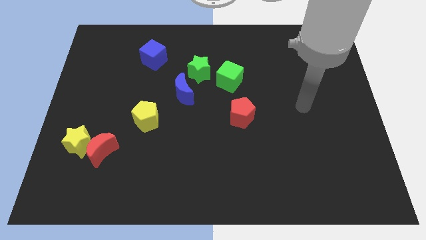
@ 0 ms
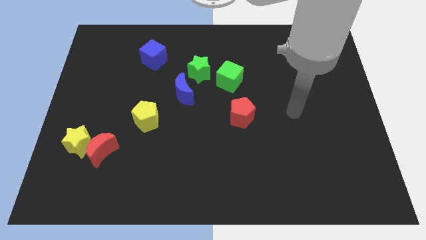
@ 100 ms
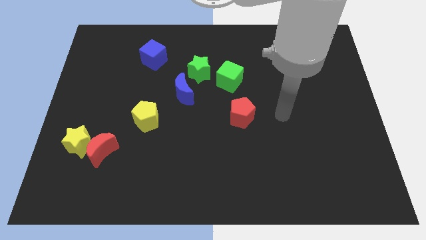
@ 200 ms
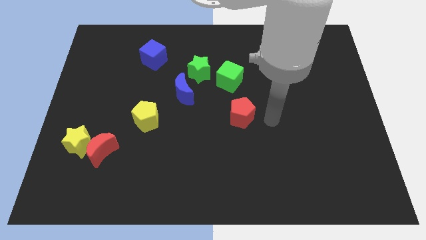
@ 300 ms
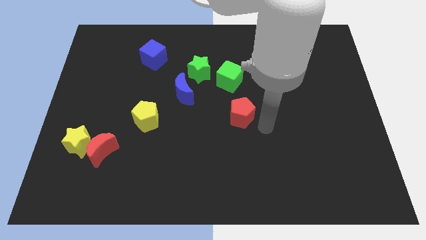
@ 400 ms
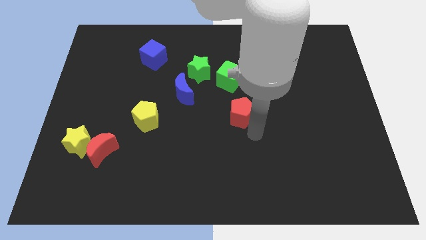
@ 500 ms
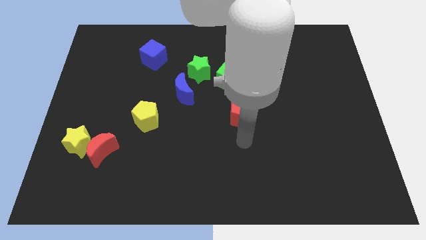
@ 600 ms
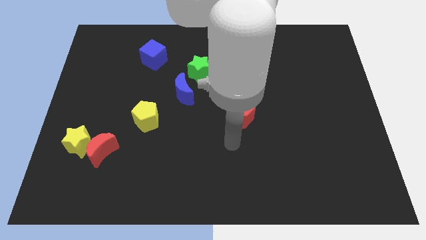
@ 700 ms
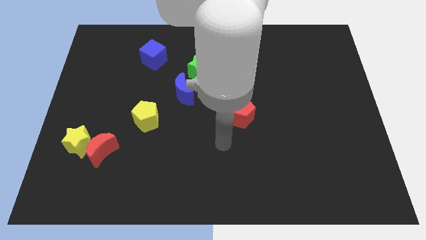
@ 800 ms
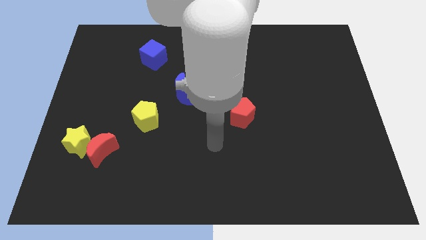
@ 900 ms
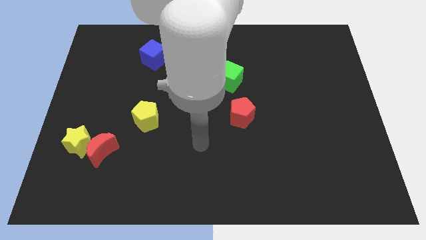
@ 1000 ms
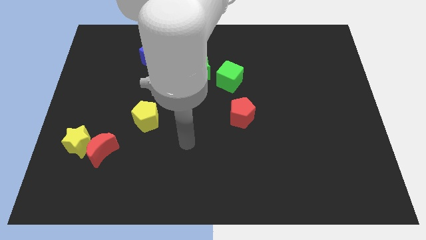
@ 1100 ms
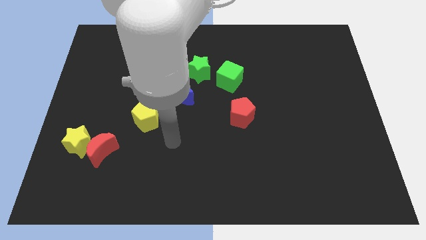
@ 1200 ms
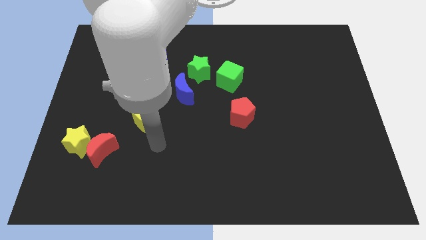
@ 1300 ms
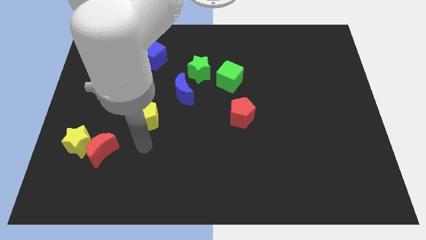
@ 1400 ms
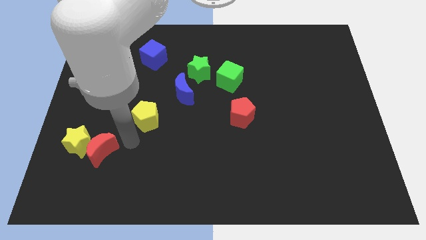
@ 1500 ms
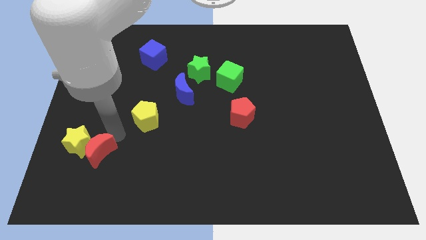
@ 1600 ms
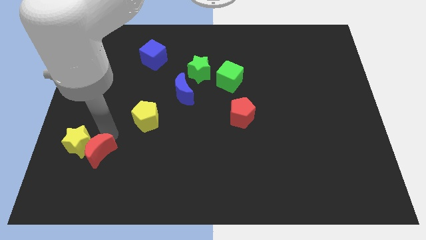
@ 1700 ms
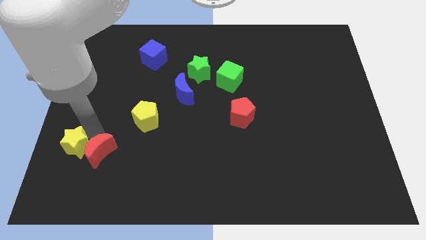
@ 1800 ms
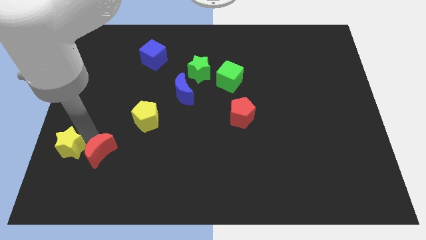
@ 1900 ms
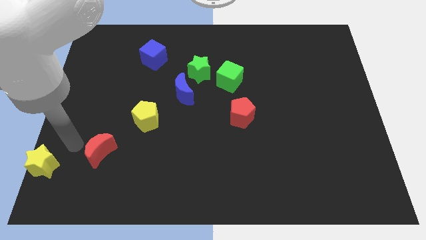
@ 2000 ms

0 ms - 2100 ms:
separate the red moon from the yellow star

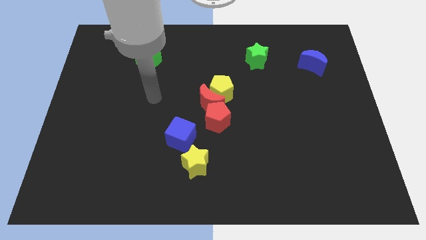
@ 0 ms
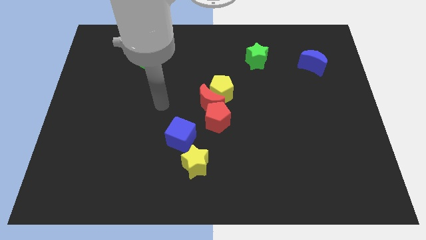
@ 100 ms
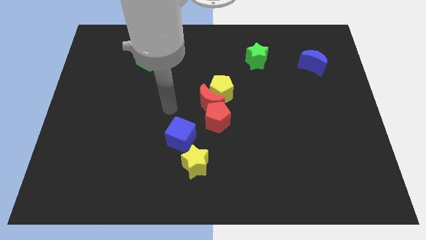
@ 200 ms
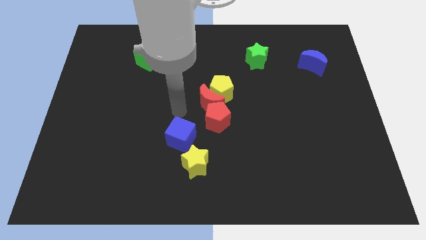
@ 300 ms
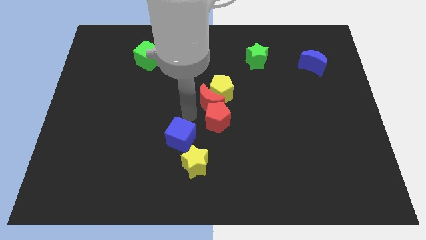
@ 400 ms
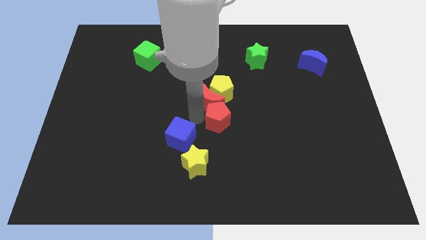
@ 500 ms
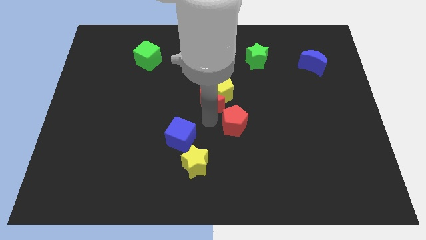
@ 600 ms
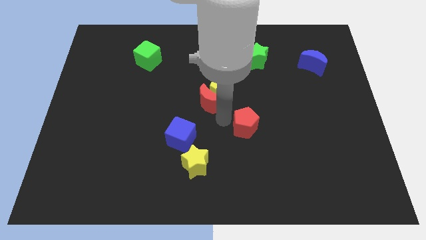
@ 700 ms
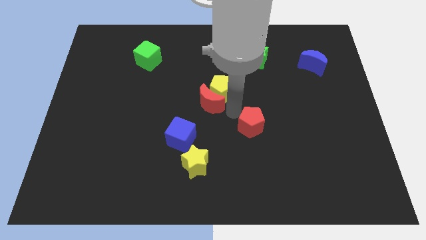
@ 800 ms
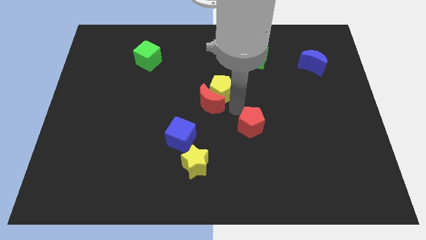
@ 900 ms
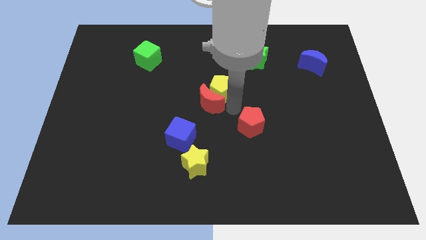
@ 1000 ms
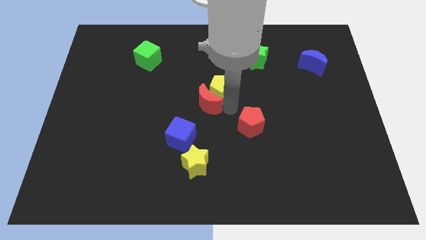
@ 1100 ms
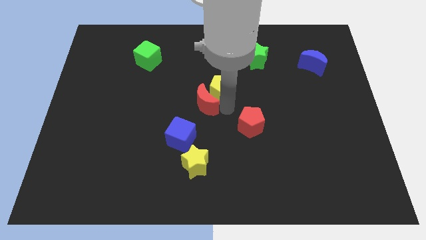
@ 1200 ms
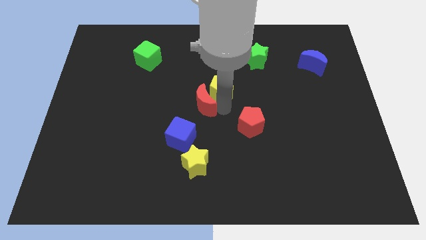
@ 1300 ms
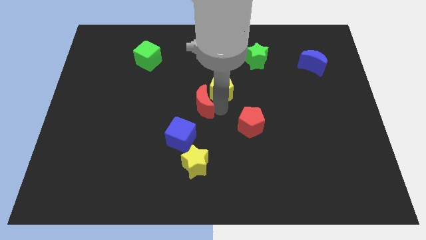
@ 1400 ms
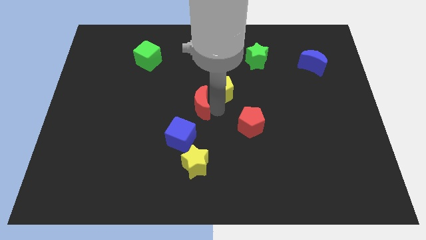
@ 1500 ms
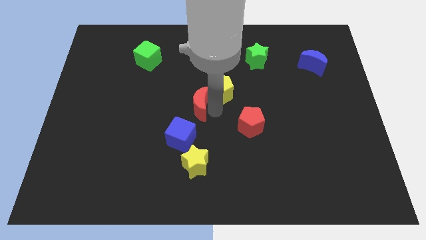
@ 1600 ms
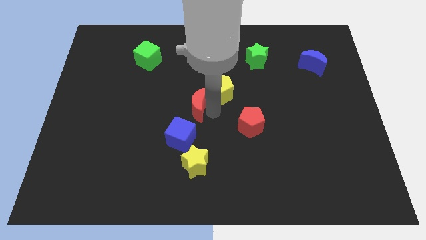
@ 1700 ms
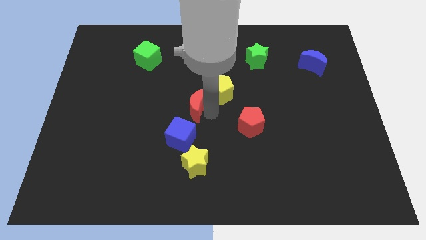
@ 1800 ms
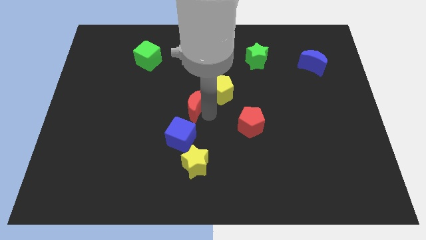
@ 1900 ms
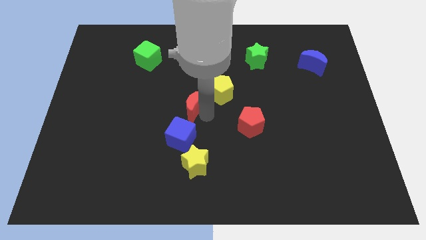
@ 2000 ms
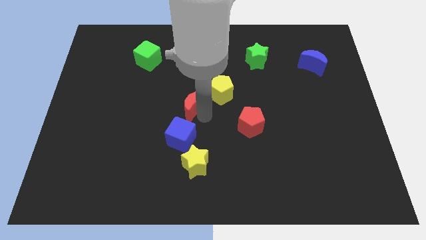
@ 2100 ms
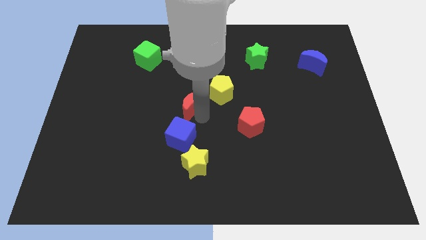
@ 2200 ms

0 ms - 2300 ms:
move the red moon away from the yellow pentagon and red pentagon

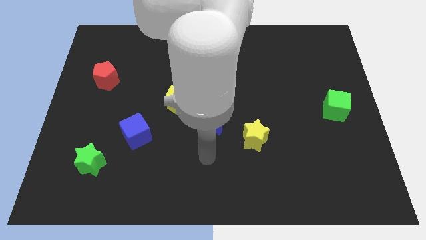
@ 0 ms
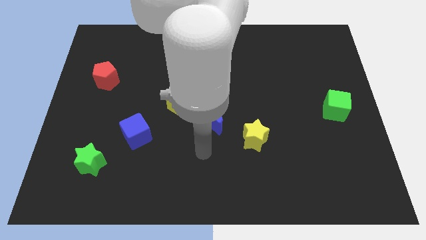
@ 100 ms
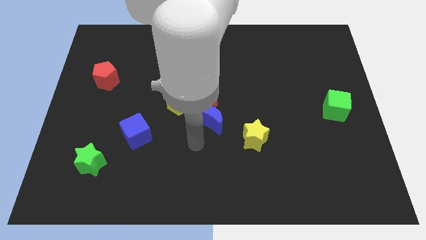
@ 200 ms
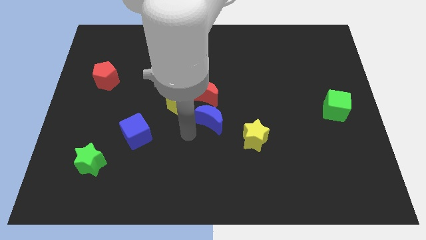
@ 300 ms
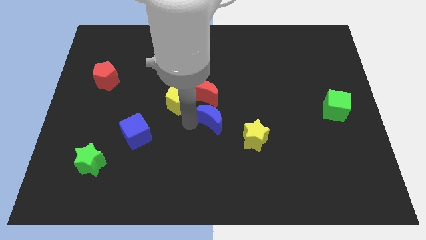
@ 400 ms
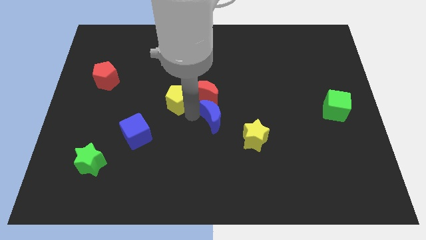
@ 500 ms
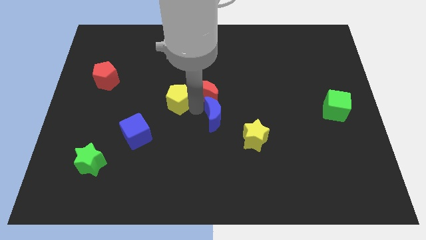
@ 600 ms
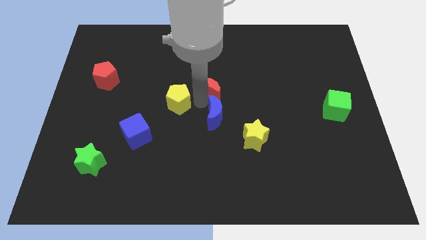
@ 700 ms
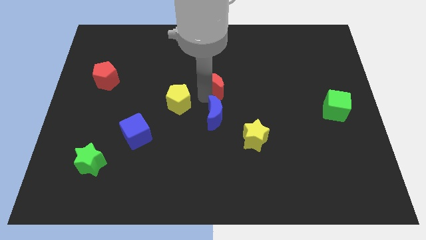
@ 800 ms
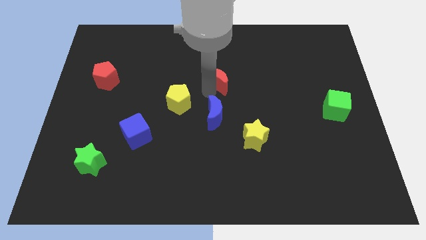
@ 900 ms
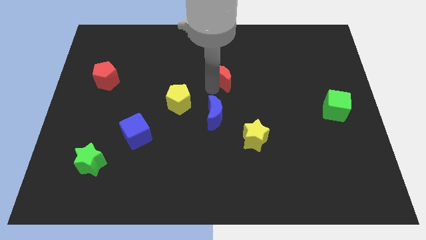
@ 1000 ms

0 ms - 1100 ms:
separate the red moon from the yellow pentagon and blue moon

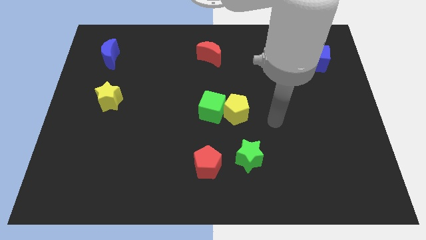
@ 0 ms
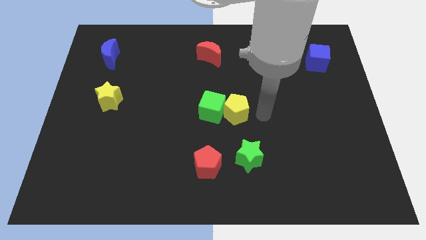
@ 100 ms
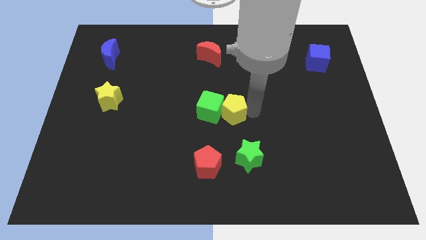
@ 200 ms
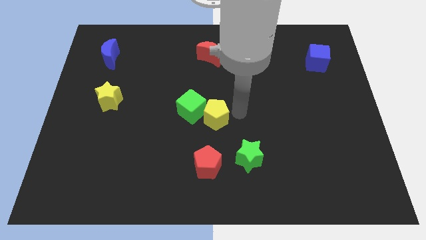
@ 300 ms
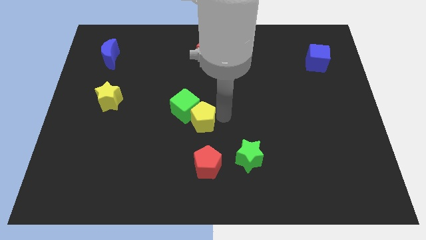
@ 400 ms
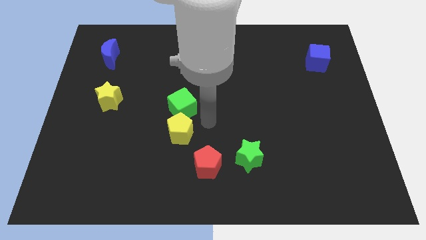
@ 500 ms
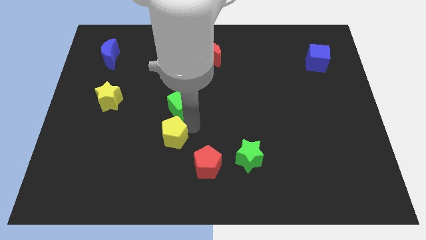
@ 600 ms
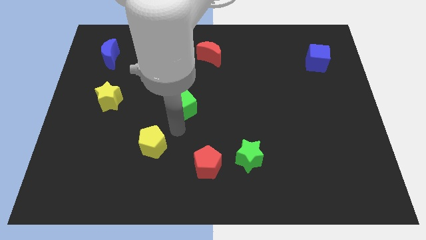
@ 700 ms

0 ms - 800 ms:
move the green cube away from the yellow pentagon

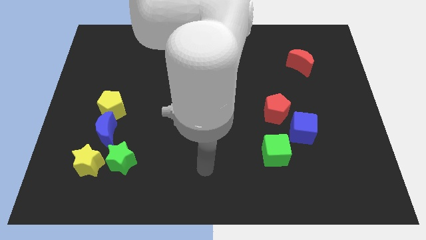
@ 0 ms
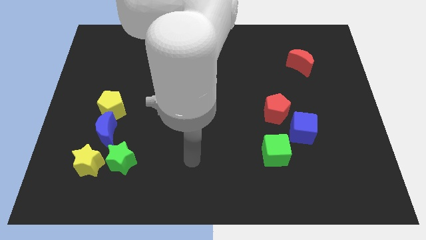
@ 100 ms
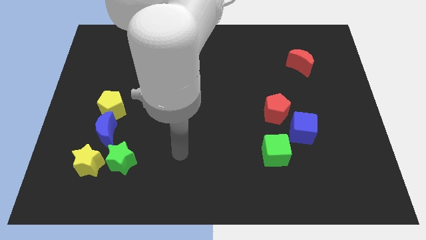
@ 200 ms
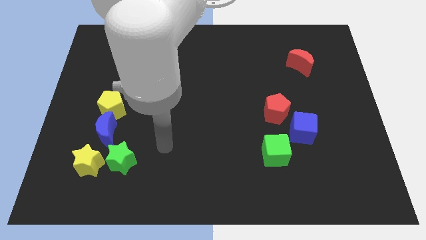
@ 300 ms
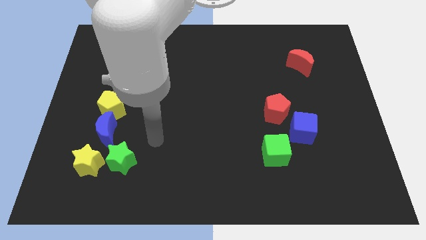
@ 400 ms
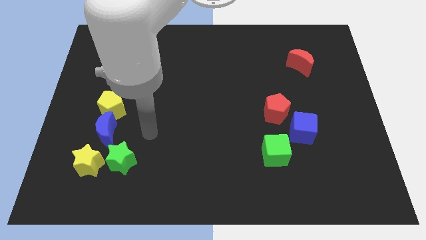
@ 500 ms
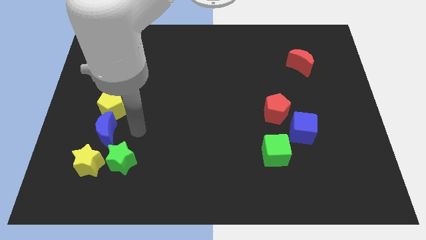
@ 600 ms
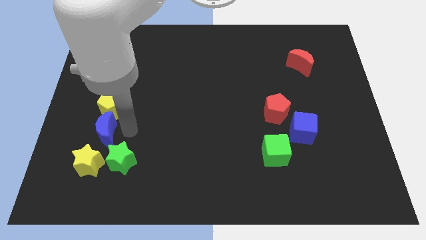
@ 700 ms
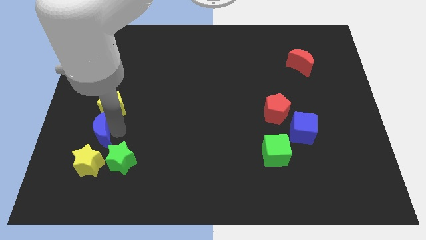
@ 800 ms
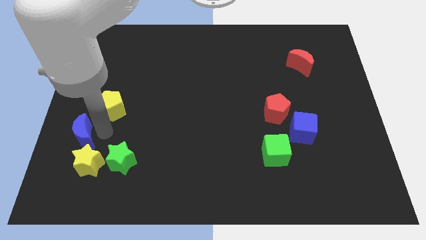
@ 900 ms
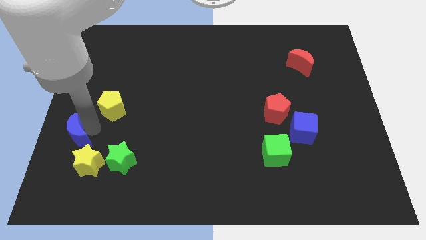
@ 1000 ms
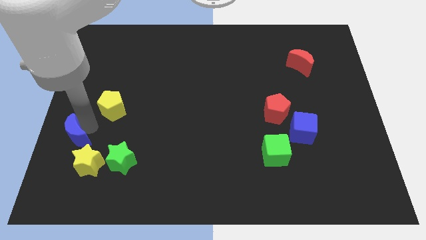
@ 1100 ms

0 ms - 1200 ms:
separate the yellow pentagon from the blue moon

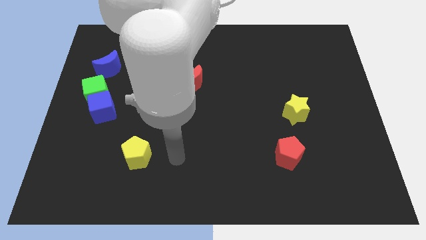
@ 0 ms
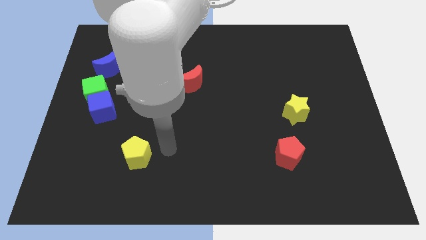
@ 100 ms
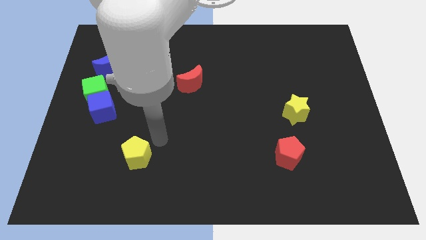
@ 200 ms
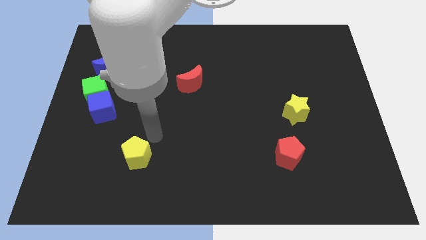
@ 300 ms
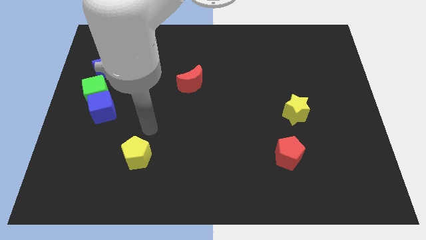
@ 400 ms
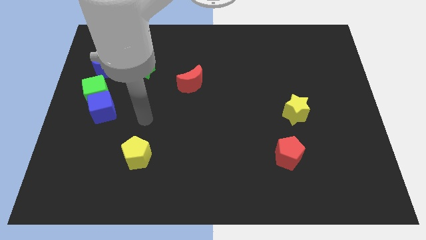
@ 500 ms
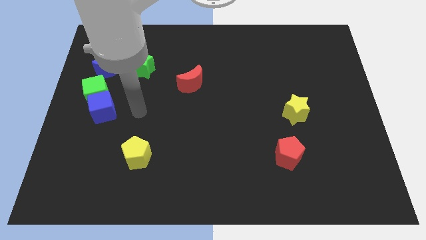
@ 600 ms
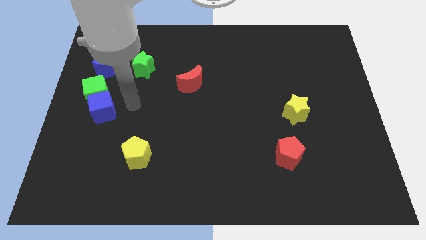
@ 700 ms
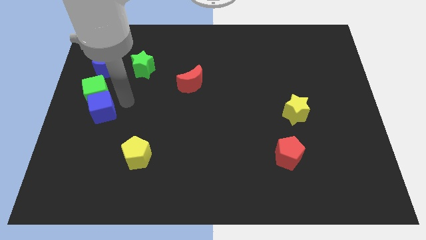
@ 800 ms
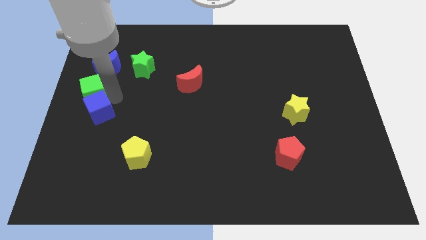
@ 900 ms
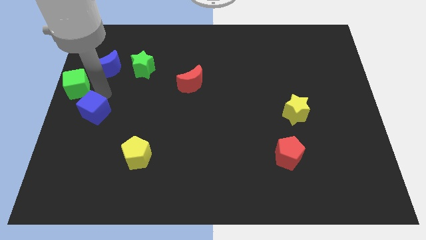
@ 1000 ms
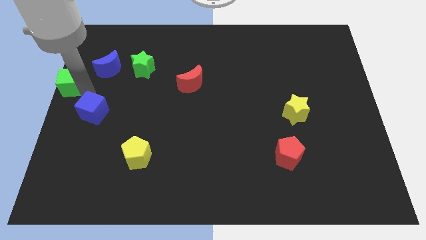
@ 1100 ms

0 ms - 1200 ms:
move the blue cube away from the green cube

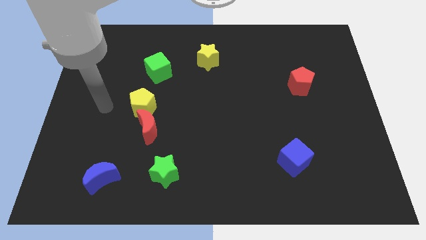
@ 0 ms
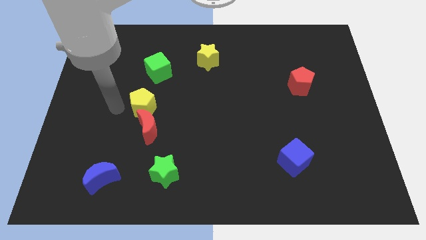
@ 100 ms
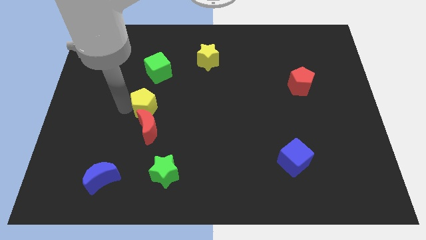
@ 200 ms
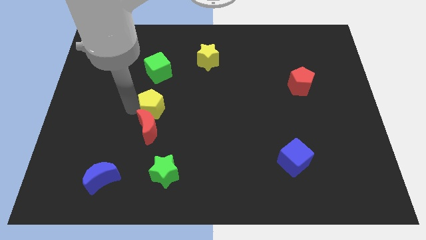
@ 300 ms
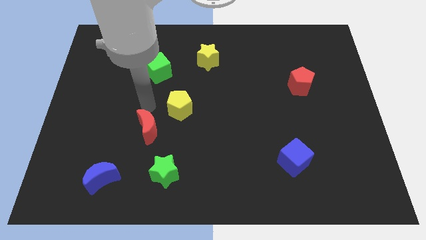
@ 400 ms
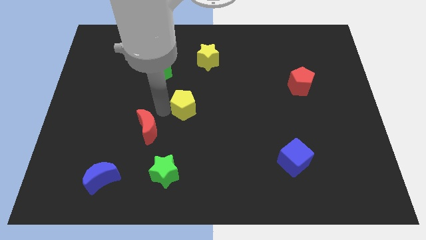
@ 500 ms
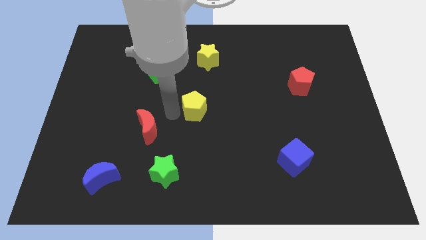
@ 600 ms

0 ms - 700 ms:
separate the red moon from the yellow pentagon
